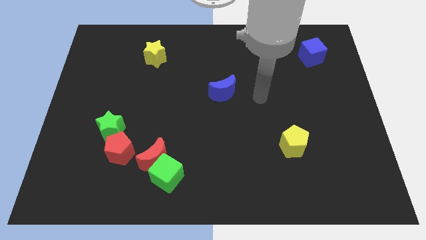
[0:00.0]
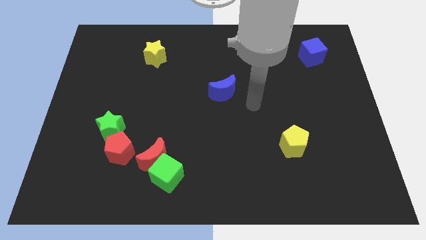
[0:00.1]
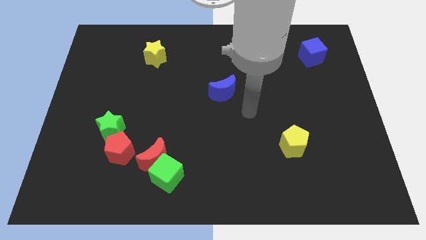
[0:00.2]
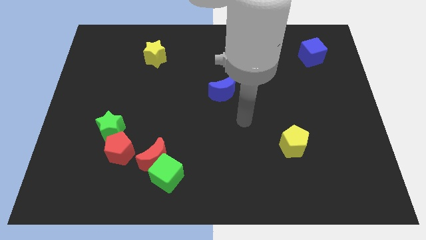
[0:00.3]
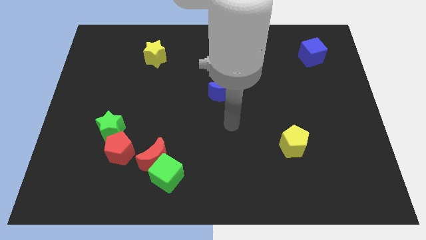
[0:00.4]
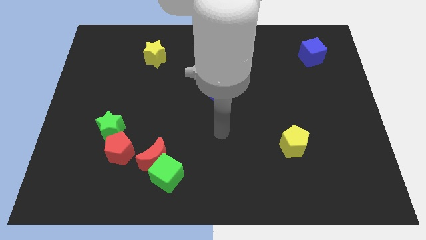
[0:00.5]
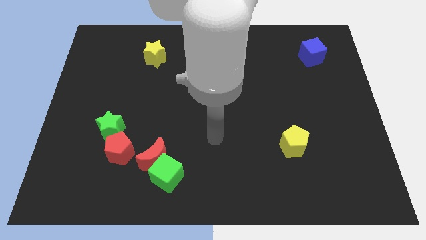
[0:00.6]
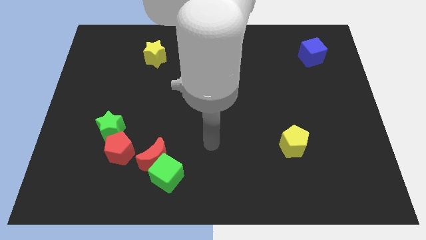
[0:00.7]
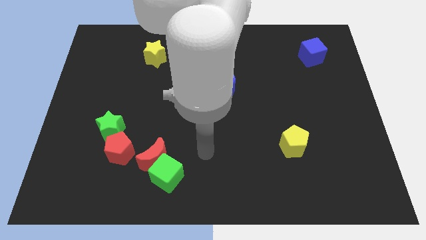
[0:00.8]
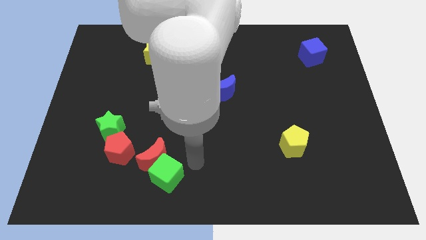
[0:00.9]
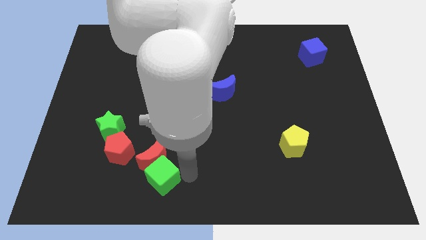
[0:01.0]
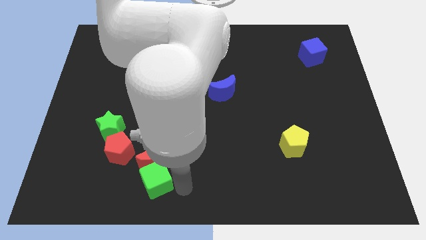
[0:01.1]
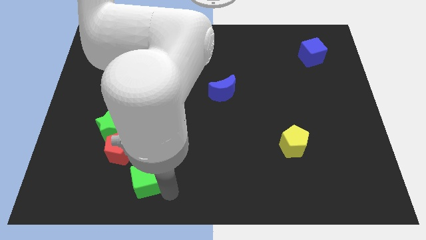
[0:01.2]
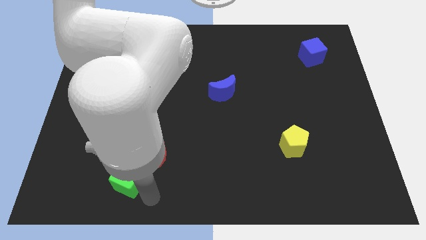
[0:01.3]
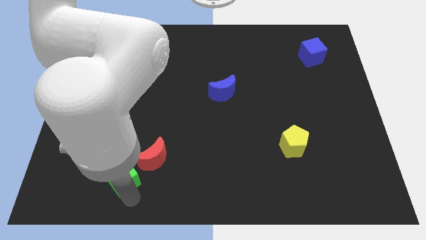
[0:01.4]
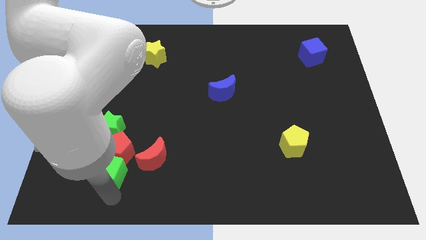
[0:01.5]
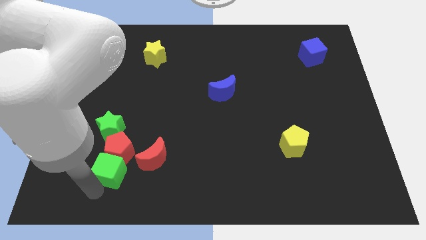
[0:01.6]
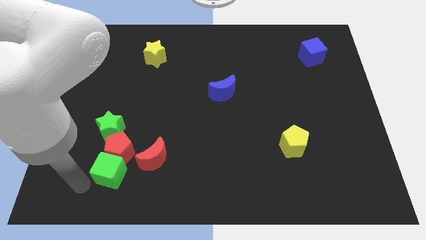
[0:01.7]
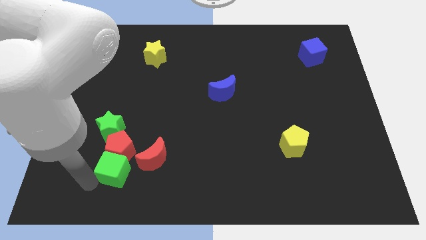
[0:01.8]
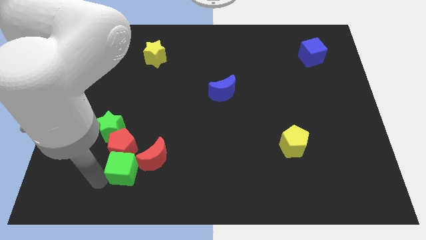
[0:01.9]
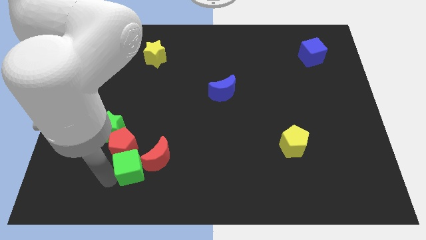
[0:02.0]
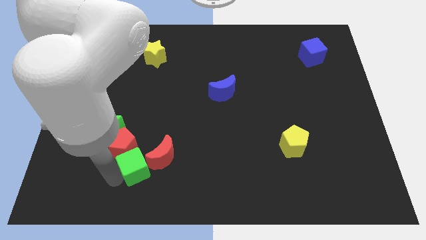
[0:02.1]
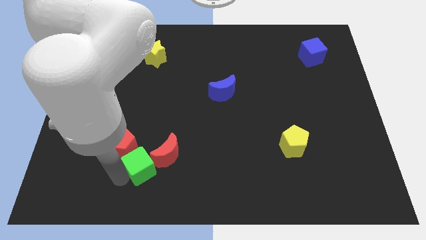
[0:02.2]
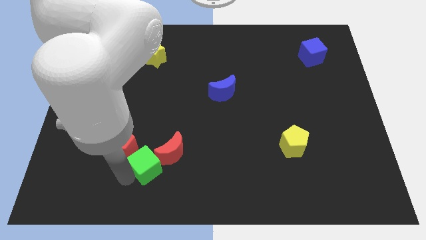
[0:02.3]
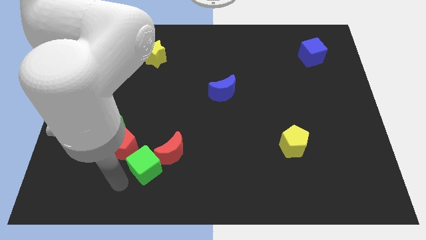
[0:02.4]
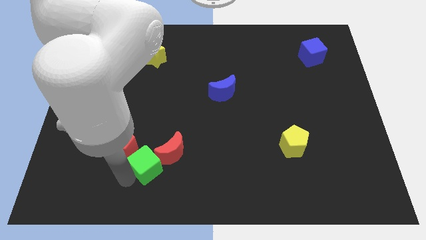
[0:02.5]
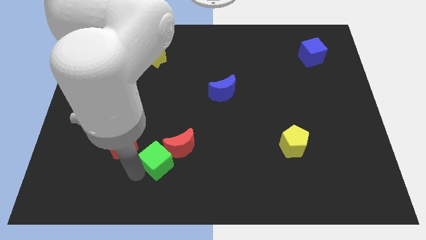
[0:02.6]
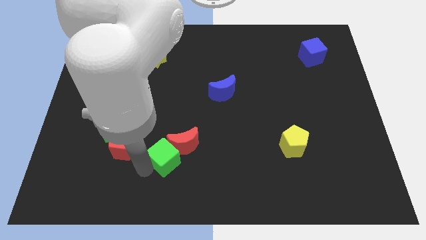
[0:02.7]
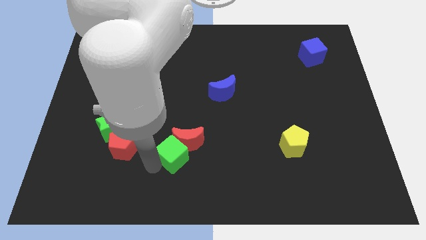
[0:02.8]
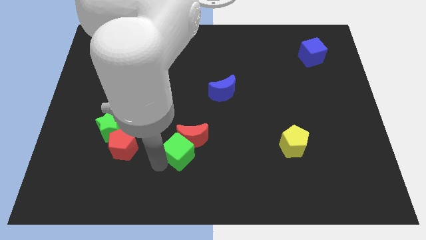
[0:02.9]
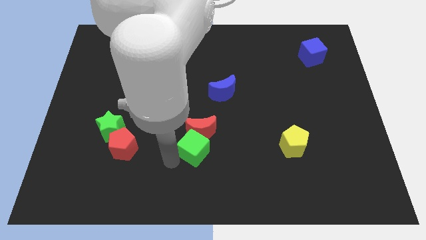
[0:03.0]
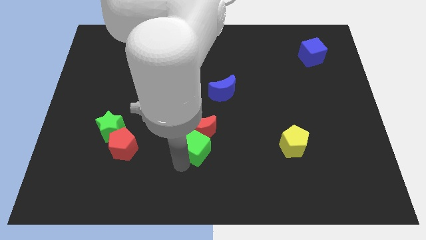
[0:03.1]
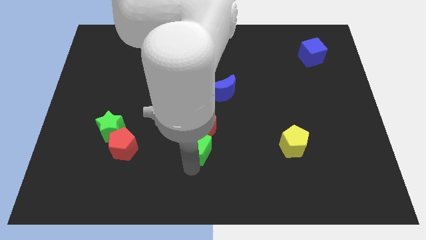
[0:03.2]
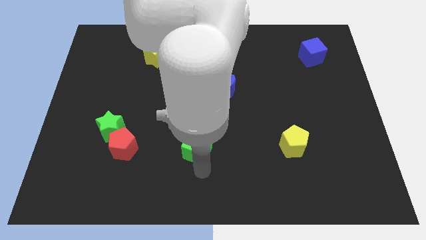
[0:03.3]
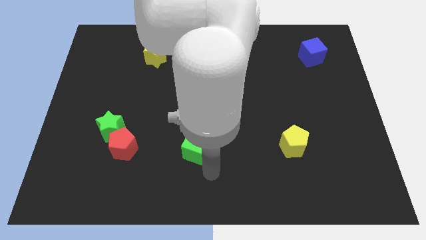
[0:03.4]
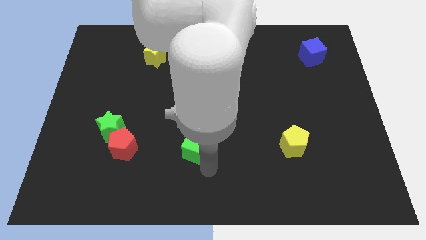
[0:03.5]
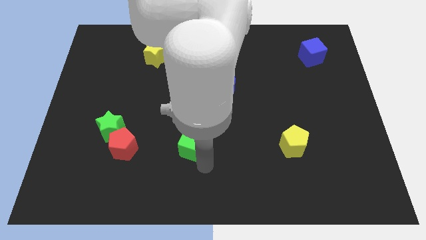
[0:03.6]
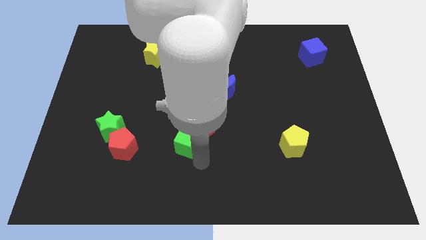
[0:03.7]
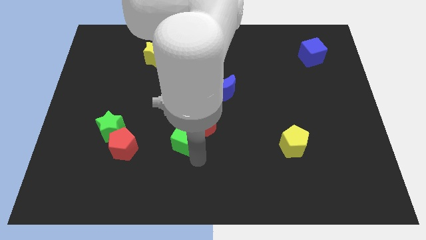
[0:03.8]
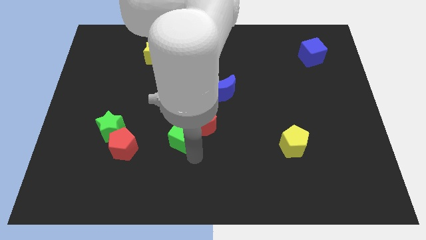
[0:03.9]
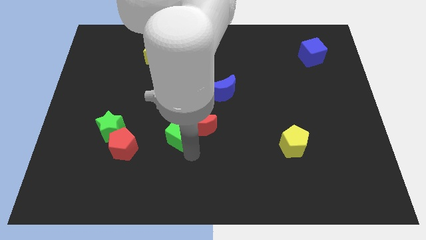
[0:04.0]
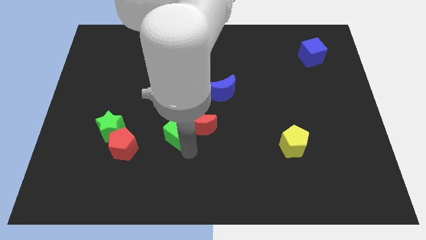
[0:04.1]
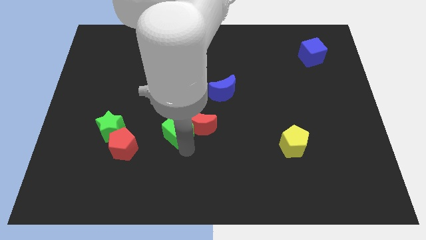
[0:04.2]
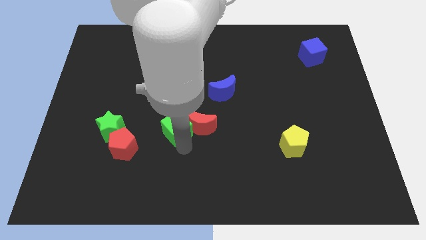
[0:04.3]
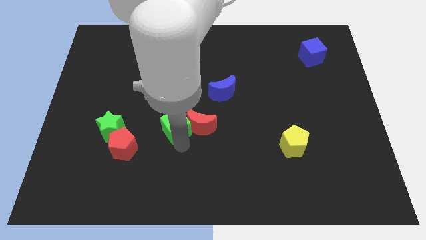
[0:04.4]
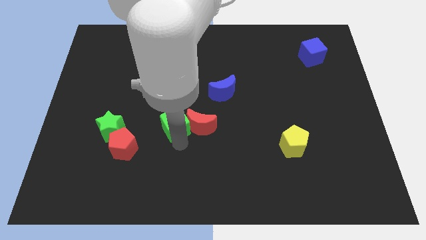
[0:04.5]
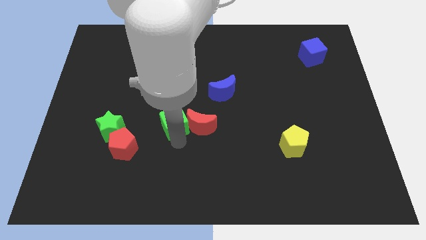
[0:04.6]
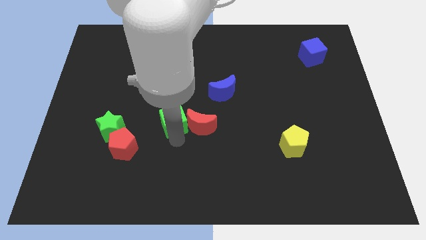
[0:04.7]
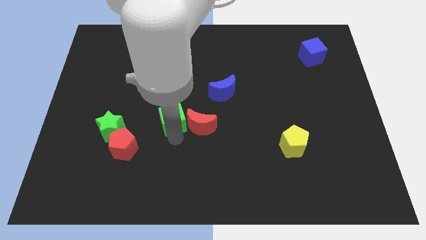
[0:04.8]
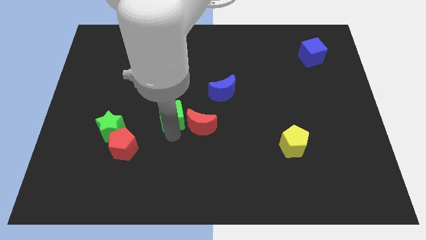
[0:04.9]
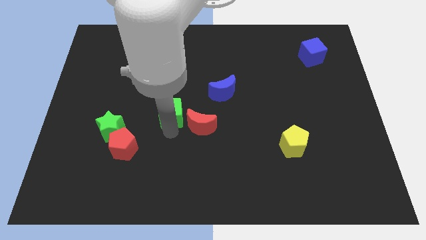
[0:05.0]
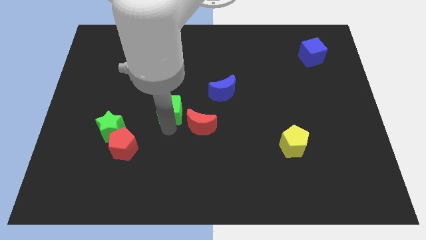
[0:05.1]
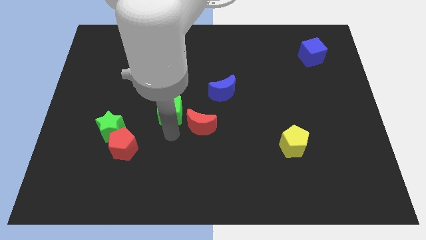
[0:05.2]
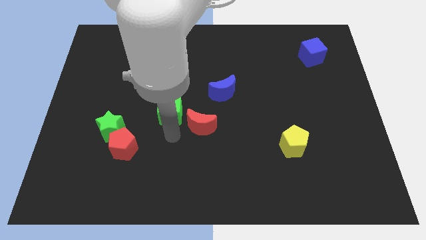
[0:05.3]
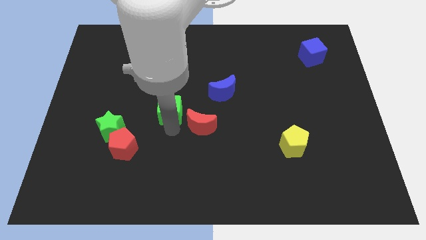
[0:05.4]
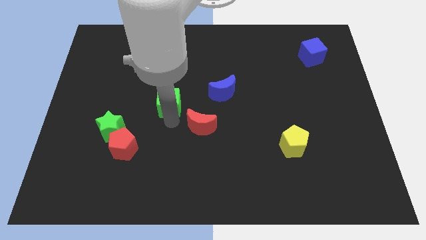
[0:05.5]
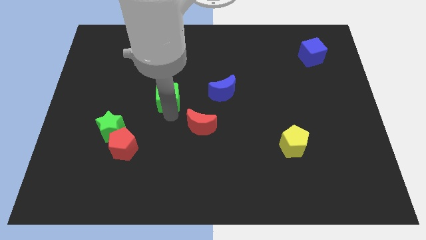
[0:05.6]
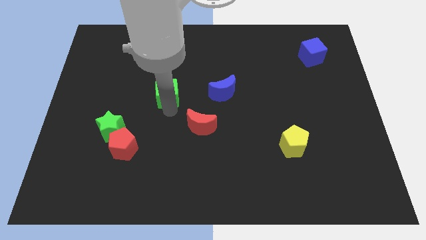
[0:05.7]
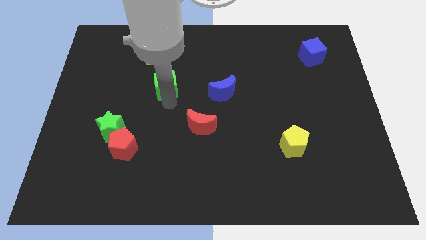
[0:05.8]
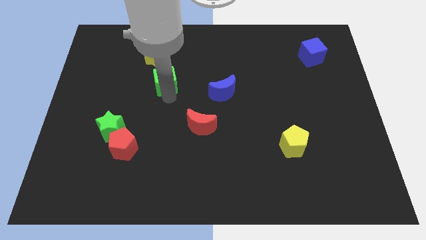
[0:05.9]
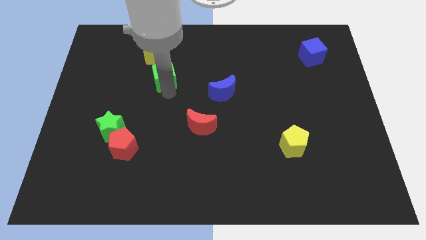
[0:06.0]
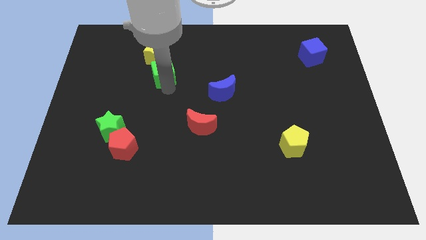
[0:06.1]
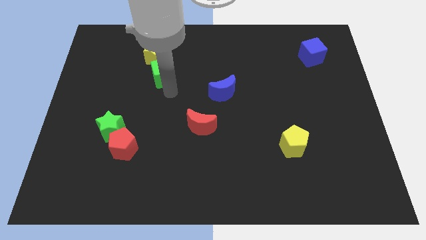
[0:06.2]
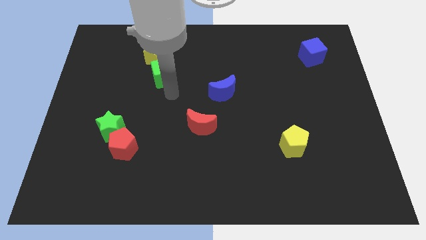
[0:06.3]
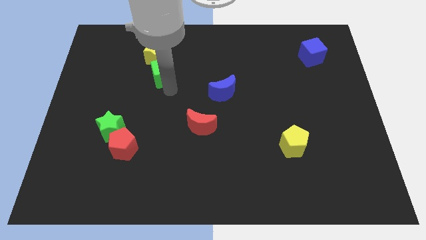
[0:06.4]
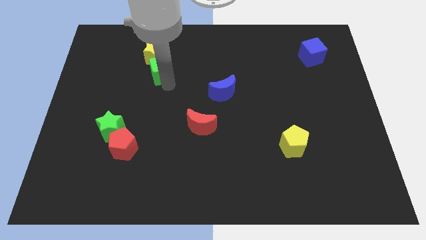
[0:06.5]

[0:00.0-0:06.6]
slide the green cube next to the yellow star

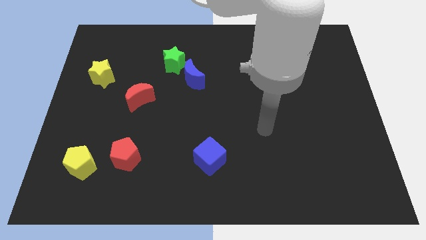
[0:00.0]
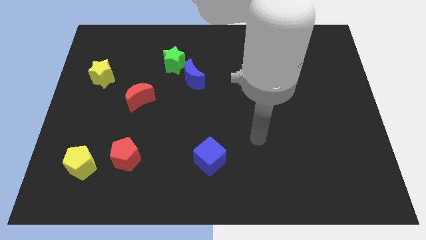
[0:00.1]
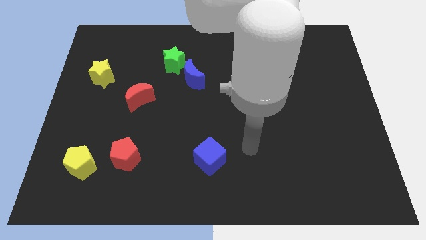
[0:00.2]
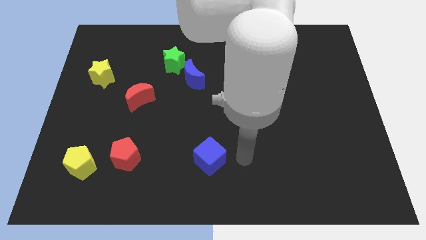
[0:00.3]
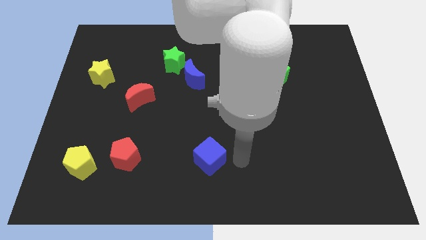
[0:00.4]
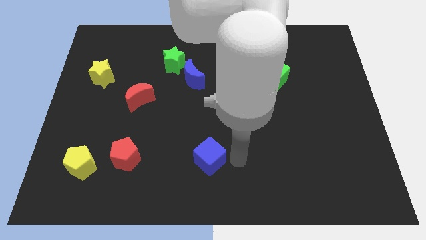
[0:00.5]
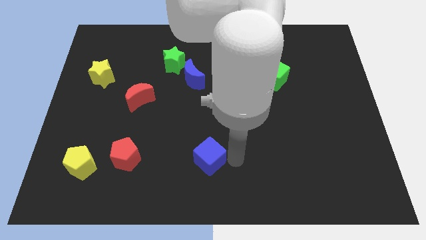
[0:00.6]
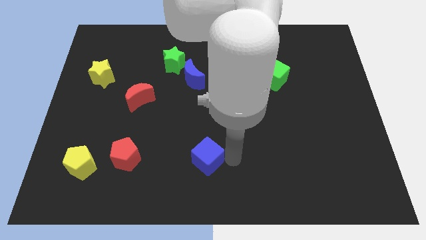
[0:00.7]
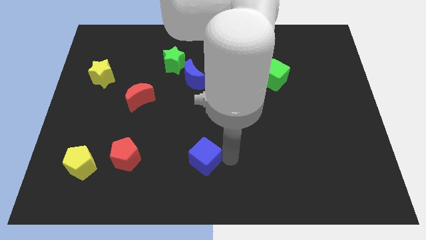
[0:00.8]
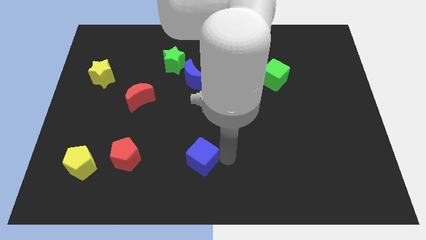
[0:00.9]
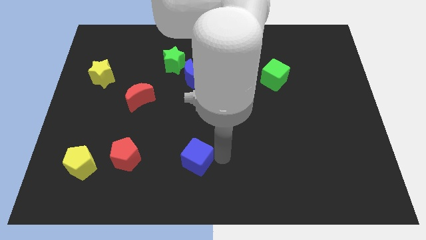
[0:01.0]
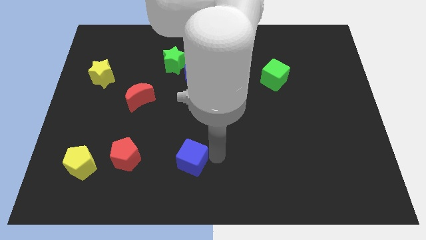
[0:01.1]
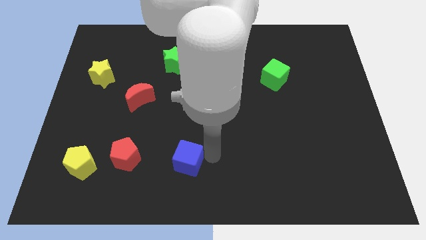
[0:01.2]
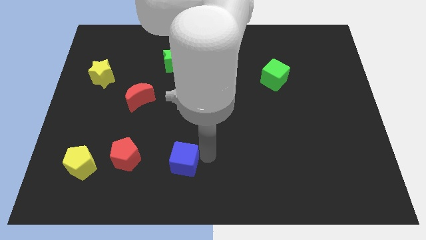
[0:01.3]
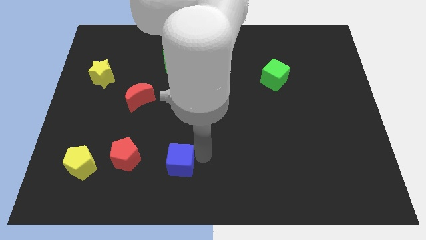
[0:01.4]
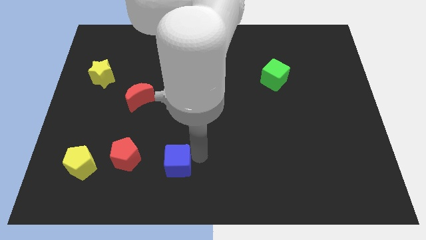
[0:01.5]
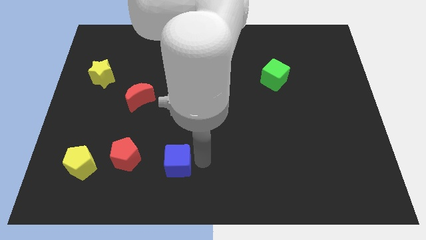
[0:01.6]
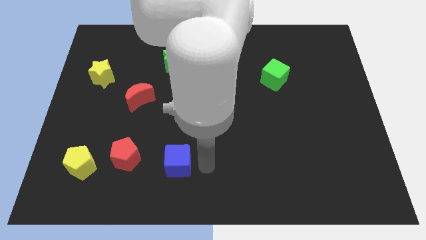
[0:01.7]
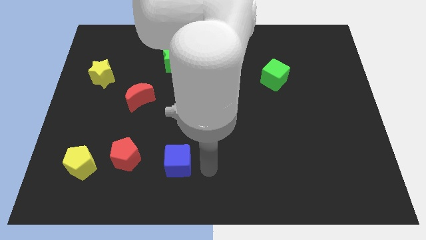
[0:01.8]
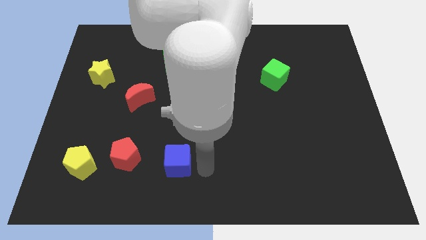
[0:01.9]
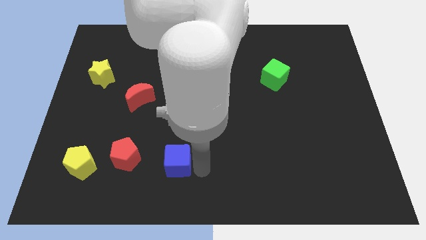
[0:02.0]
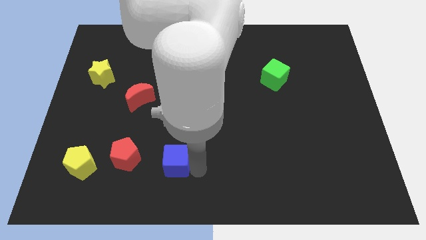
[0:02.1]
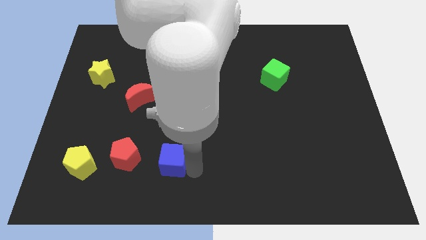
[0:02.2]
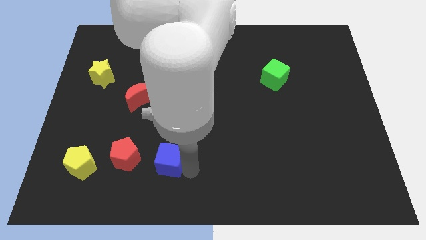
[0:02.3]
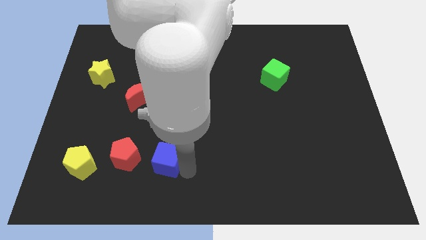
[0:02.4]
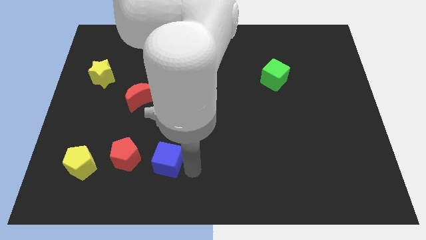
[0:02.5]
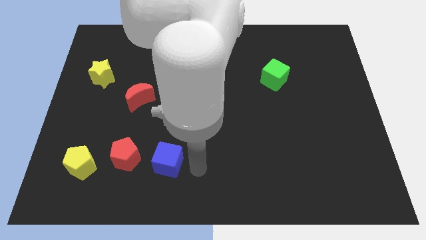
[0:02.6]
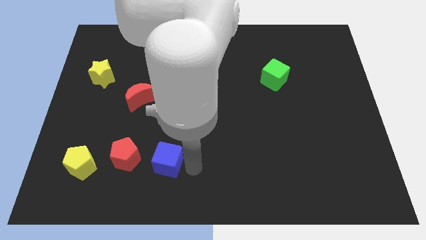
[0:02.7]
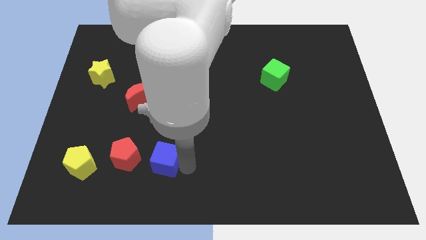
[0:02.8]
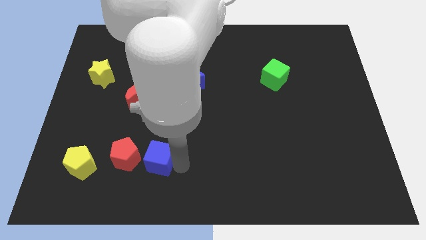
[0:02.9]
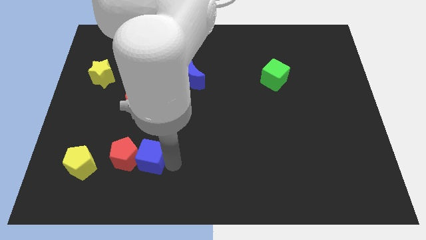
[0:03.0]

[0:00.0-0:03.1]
slide the blue cube to the red pentagon
